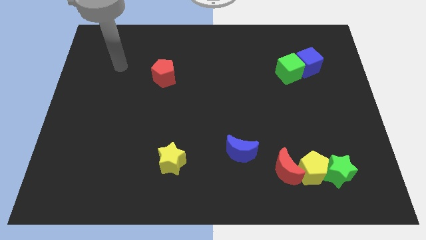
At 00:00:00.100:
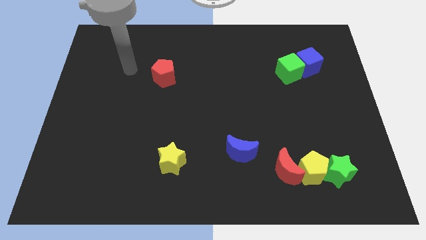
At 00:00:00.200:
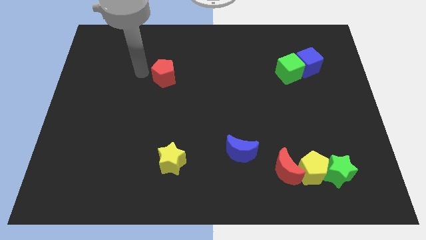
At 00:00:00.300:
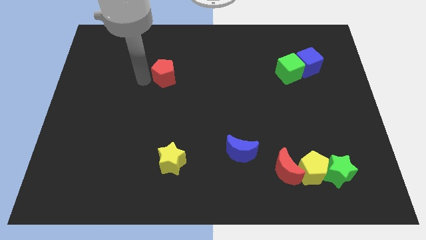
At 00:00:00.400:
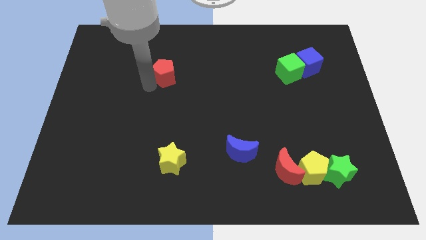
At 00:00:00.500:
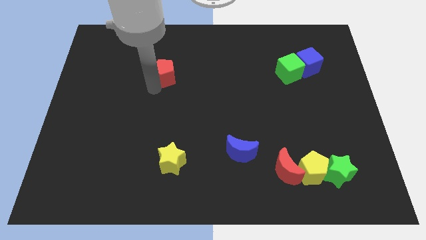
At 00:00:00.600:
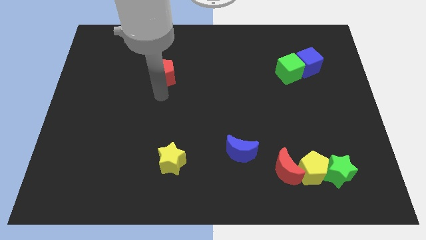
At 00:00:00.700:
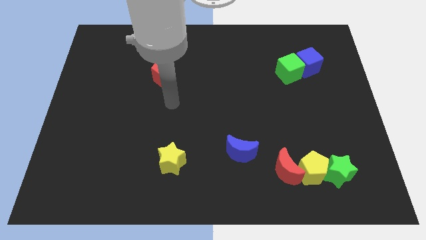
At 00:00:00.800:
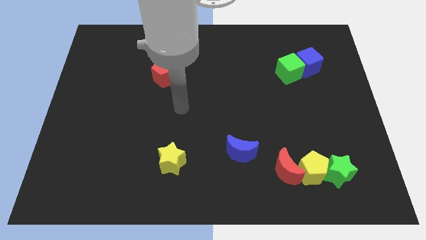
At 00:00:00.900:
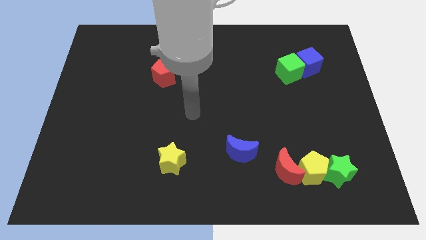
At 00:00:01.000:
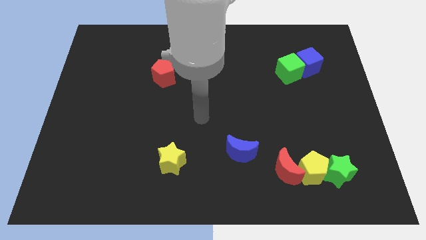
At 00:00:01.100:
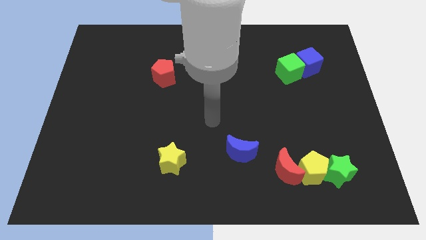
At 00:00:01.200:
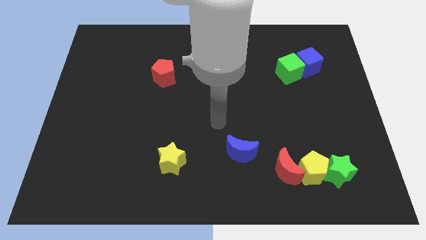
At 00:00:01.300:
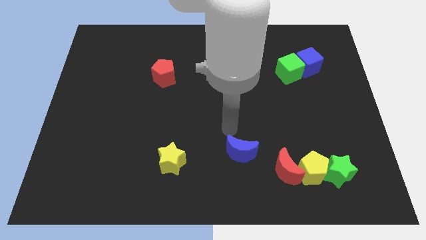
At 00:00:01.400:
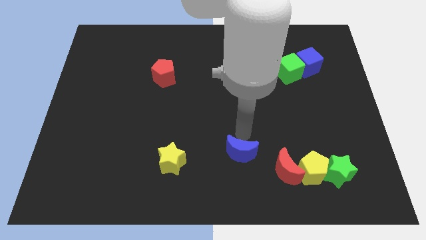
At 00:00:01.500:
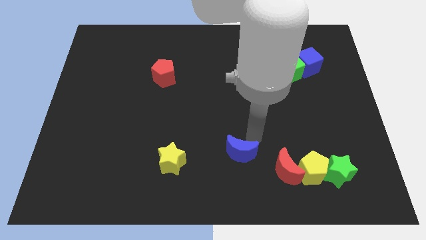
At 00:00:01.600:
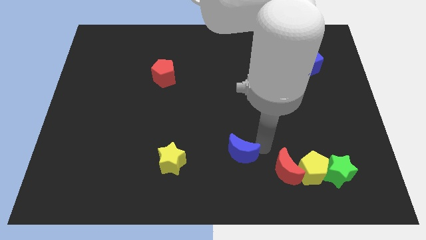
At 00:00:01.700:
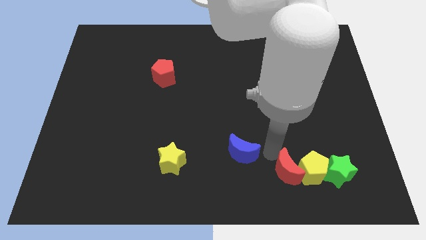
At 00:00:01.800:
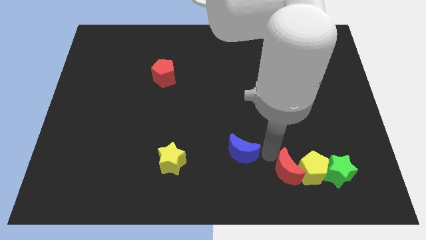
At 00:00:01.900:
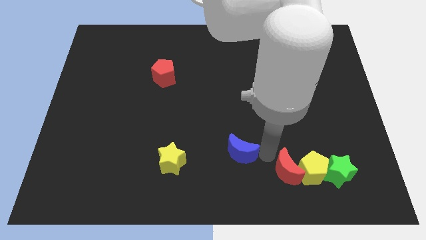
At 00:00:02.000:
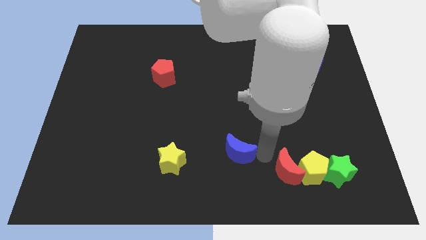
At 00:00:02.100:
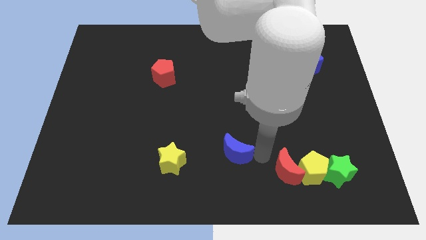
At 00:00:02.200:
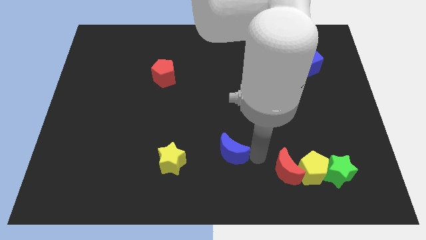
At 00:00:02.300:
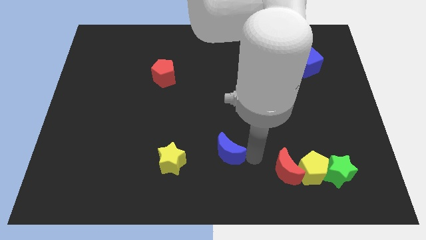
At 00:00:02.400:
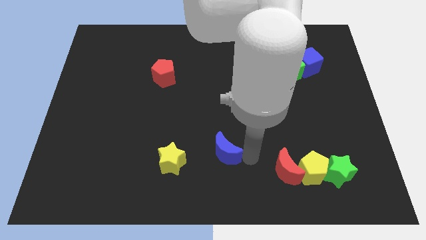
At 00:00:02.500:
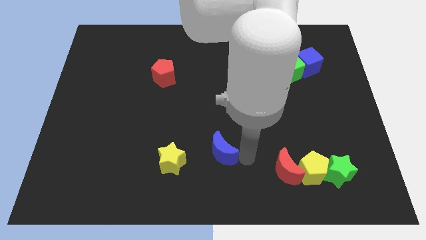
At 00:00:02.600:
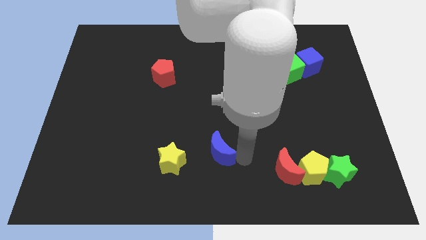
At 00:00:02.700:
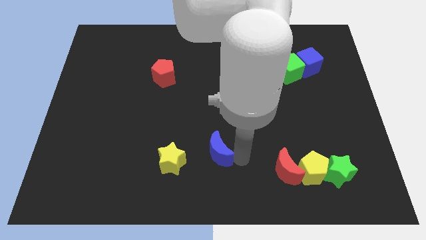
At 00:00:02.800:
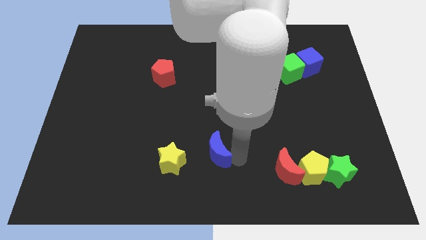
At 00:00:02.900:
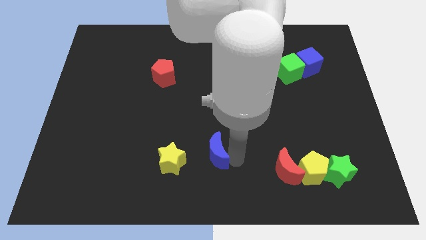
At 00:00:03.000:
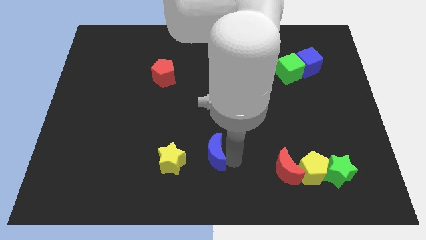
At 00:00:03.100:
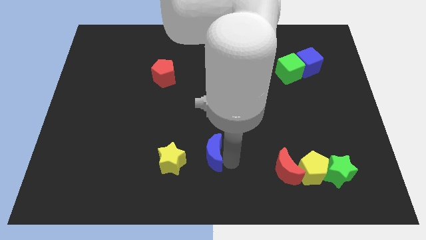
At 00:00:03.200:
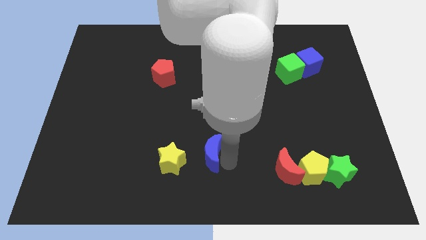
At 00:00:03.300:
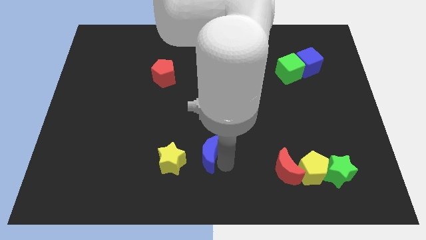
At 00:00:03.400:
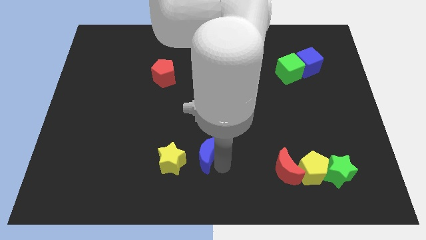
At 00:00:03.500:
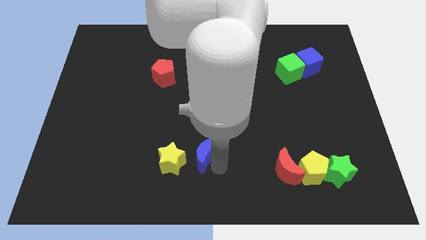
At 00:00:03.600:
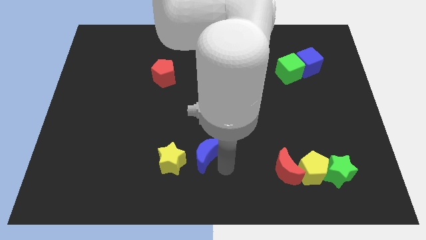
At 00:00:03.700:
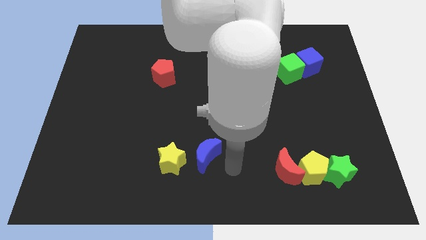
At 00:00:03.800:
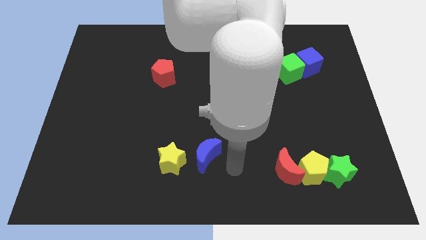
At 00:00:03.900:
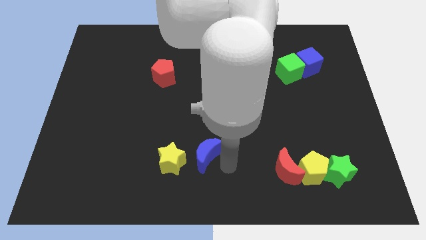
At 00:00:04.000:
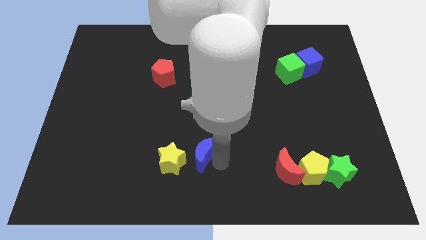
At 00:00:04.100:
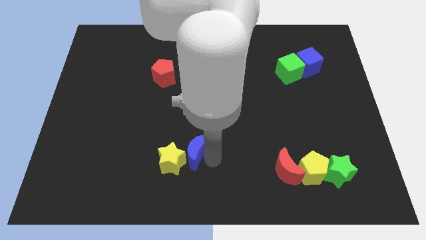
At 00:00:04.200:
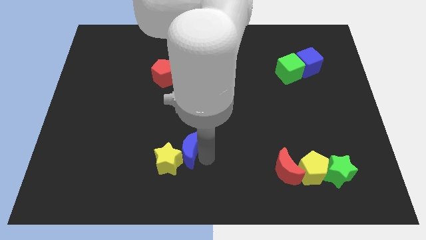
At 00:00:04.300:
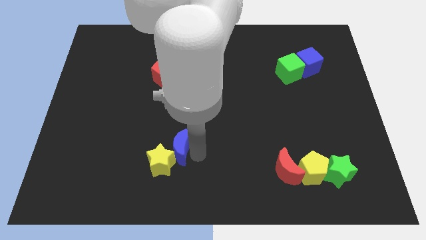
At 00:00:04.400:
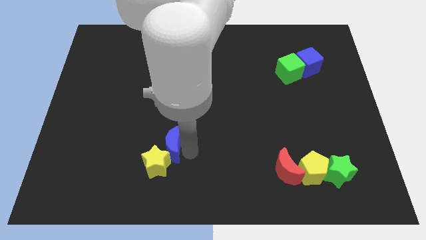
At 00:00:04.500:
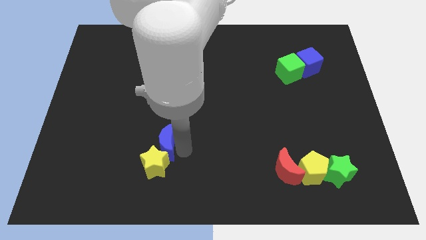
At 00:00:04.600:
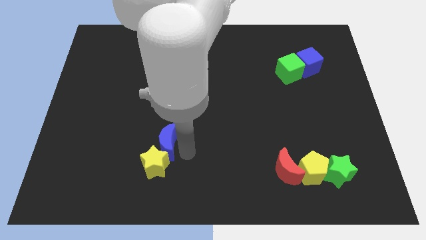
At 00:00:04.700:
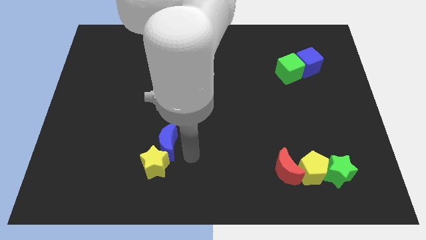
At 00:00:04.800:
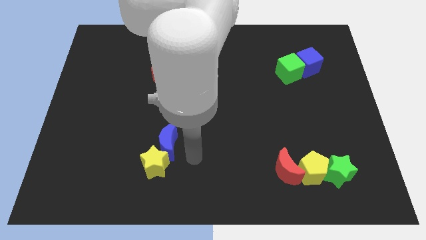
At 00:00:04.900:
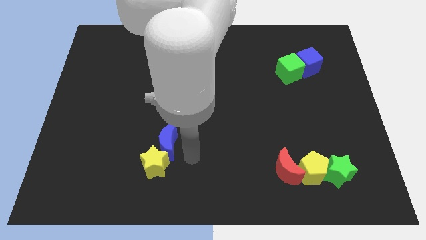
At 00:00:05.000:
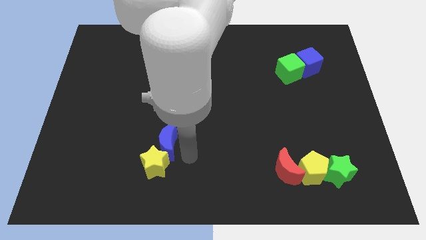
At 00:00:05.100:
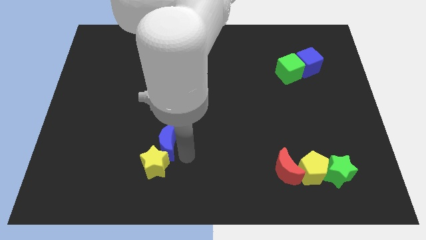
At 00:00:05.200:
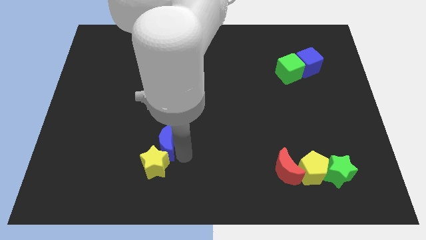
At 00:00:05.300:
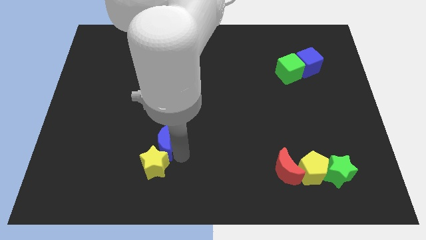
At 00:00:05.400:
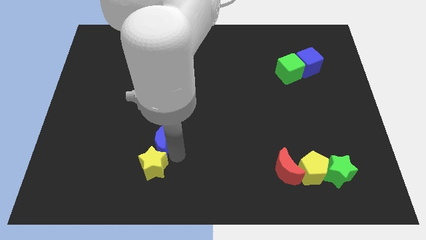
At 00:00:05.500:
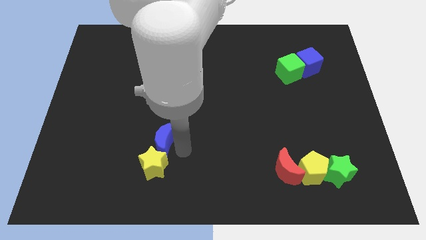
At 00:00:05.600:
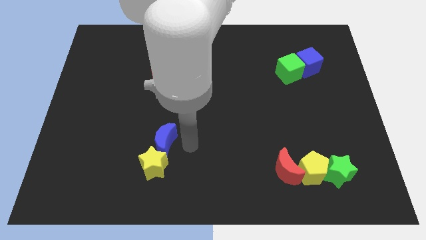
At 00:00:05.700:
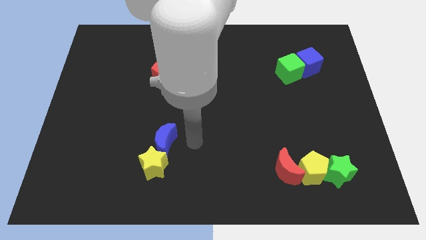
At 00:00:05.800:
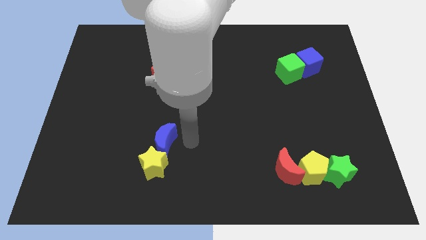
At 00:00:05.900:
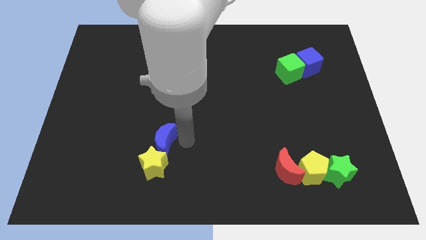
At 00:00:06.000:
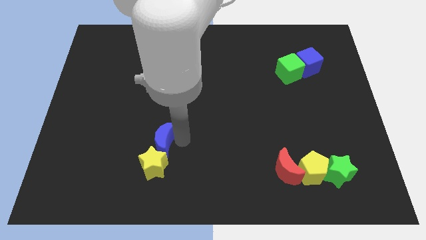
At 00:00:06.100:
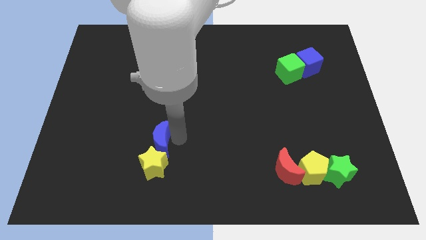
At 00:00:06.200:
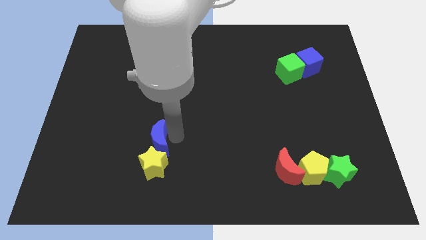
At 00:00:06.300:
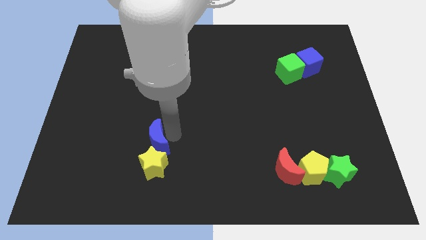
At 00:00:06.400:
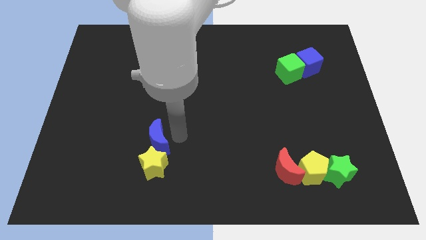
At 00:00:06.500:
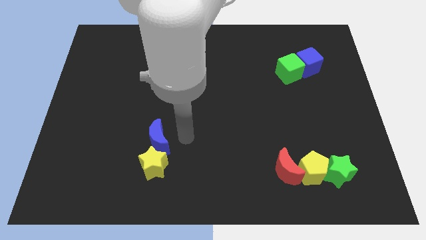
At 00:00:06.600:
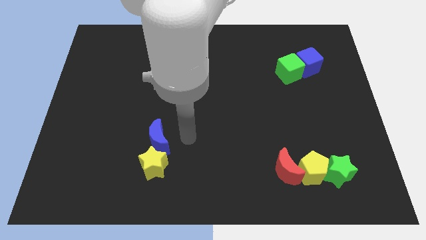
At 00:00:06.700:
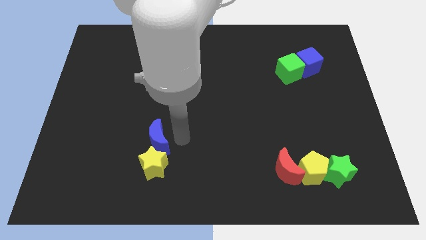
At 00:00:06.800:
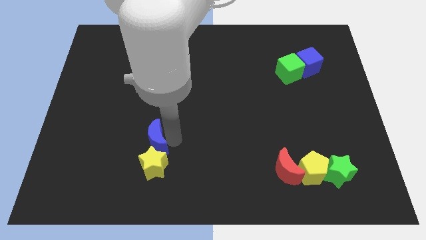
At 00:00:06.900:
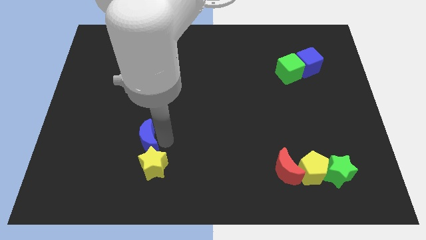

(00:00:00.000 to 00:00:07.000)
move the blue moon to the left

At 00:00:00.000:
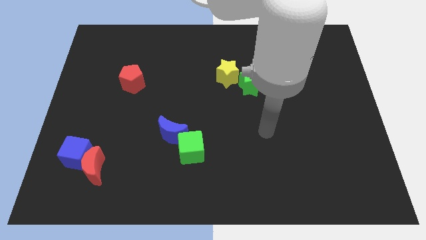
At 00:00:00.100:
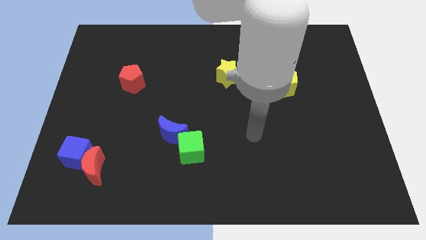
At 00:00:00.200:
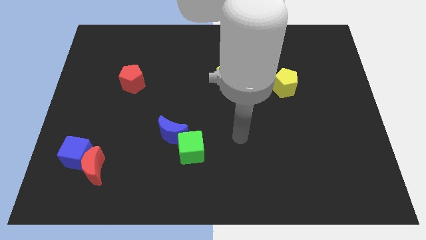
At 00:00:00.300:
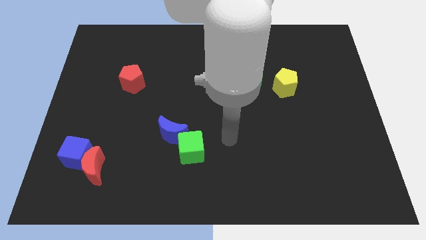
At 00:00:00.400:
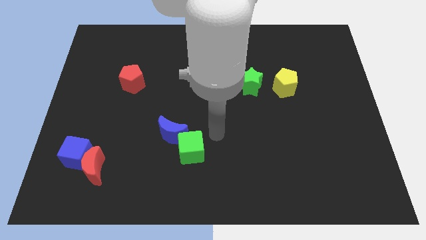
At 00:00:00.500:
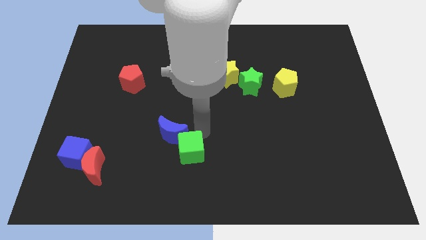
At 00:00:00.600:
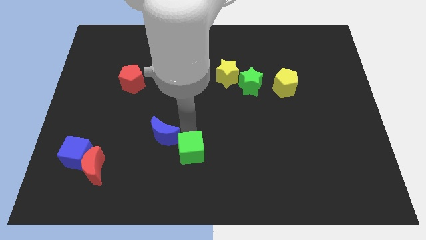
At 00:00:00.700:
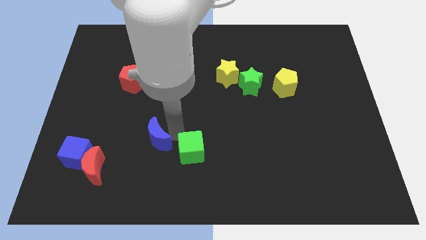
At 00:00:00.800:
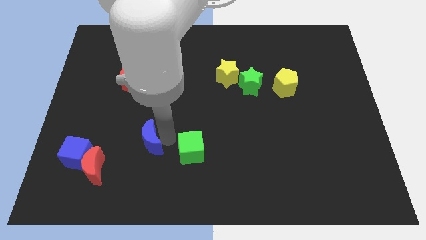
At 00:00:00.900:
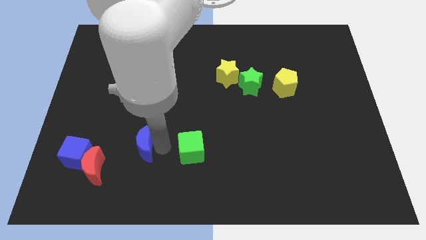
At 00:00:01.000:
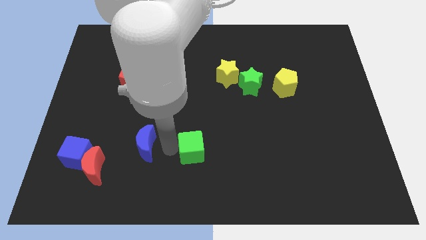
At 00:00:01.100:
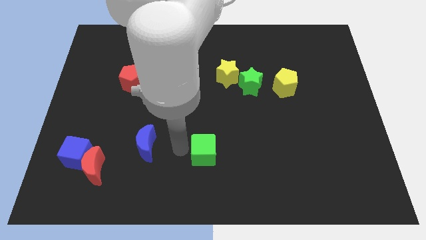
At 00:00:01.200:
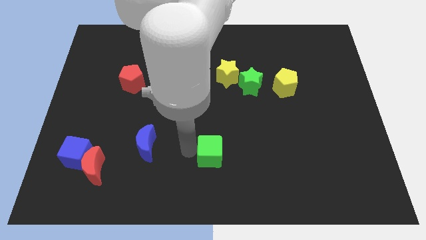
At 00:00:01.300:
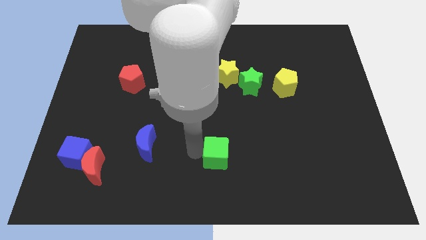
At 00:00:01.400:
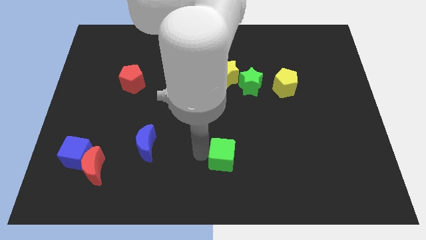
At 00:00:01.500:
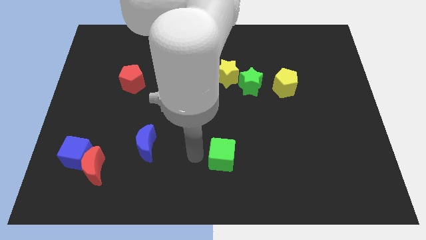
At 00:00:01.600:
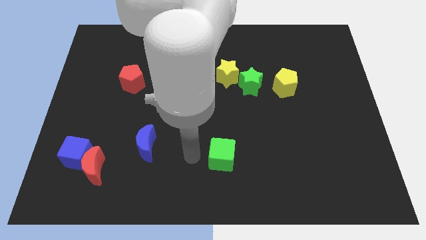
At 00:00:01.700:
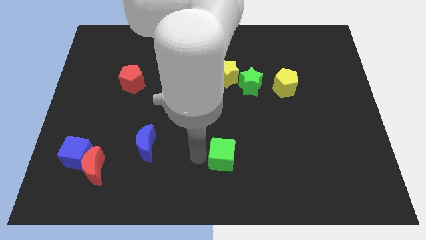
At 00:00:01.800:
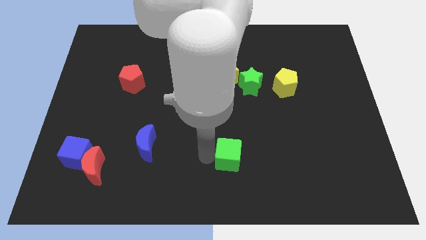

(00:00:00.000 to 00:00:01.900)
push the green cube to the right a bit
